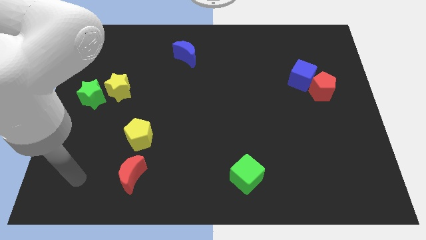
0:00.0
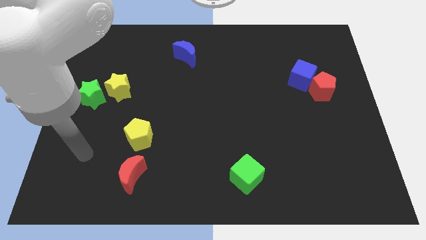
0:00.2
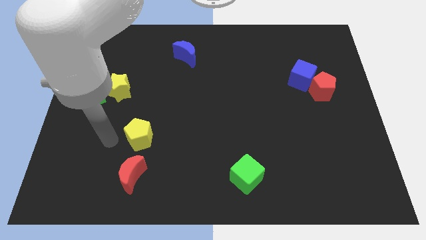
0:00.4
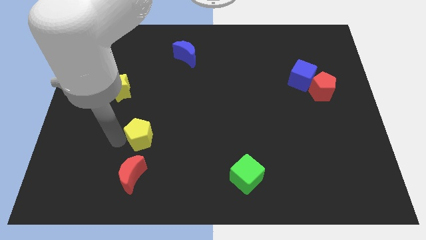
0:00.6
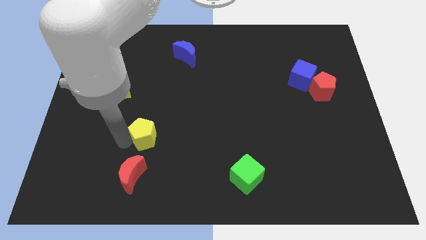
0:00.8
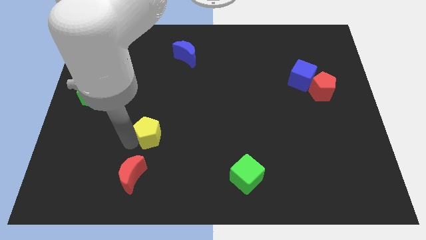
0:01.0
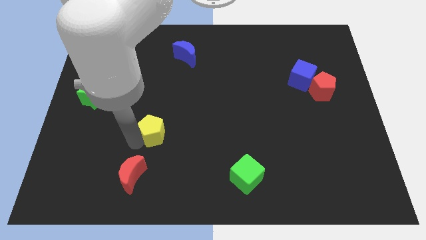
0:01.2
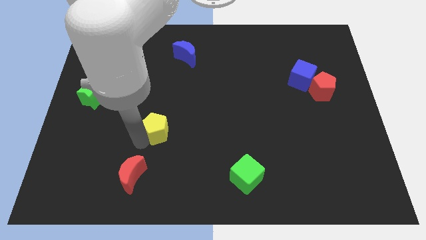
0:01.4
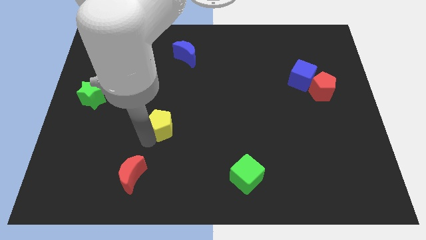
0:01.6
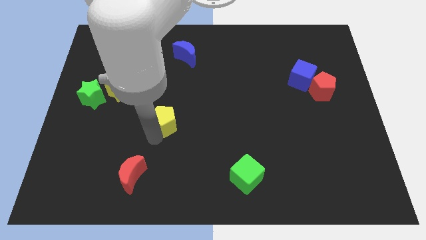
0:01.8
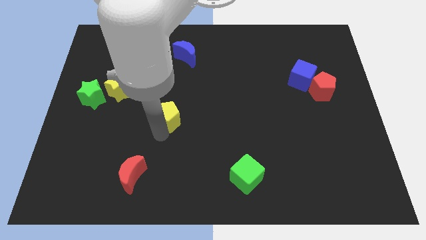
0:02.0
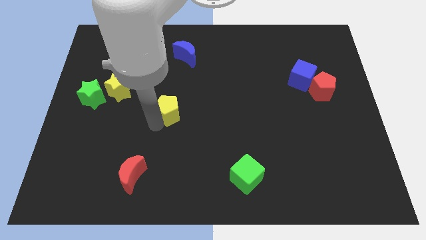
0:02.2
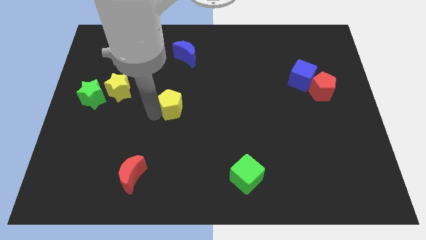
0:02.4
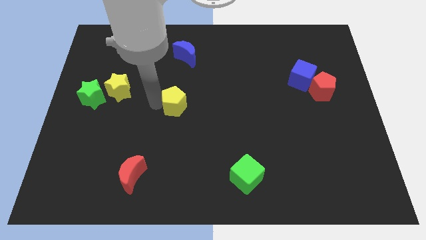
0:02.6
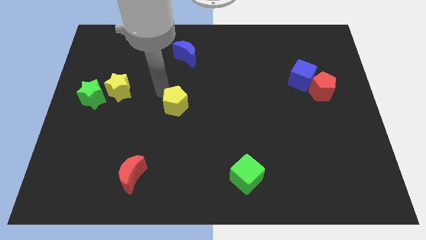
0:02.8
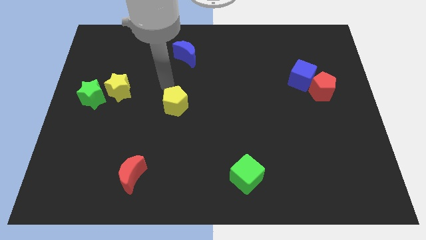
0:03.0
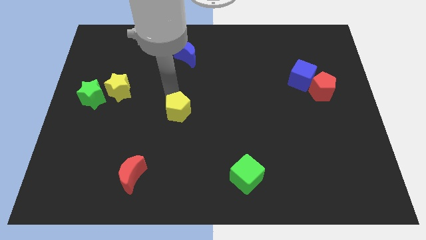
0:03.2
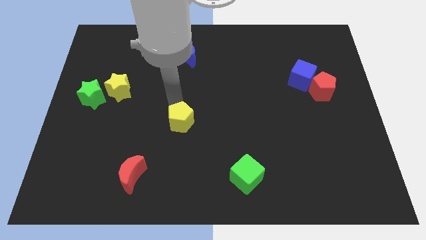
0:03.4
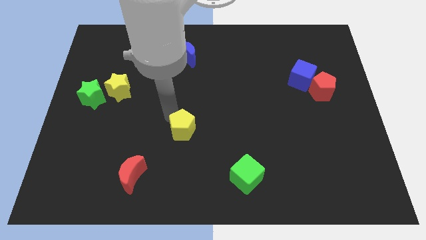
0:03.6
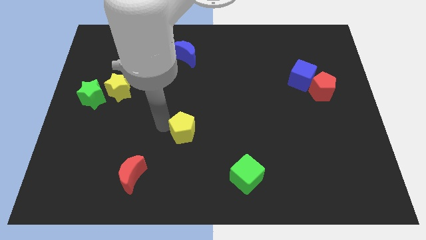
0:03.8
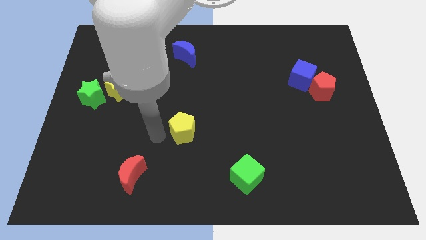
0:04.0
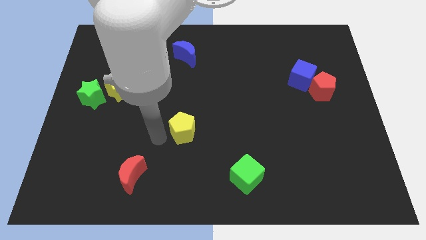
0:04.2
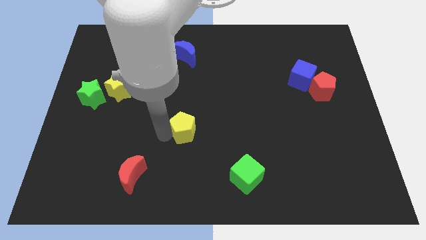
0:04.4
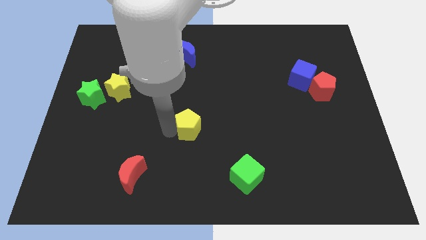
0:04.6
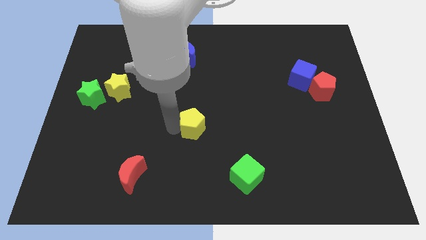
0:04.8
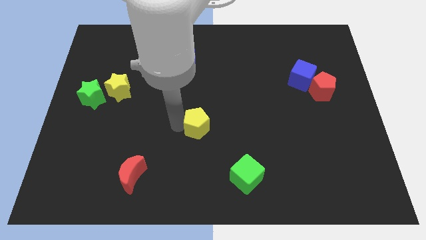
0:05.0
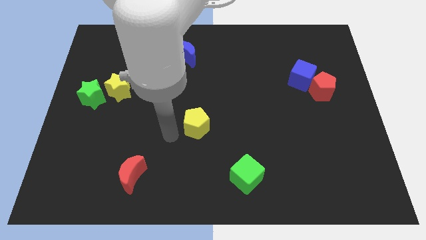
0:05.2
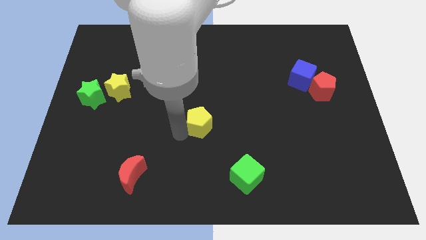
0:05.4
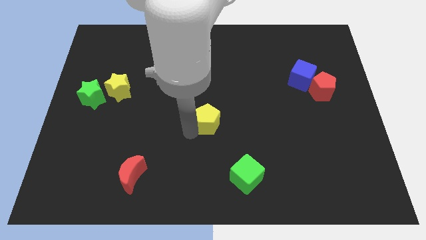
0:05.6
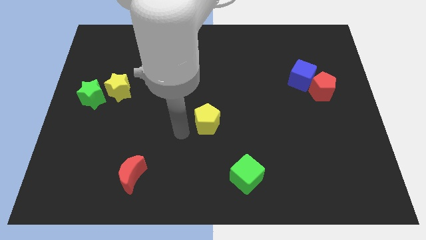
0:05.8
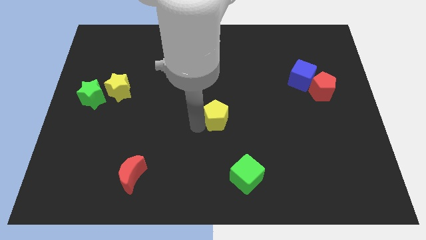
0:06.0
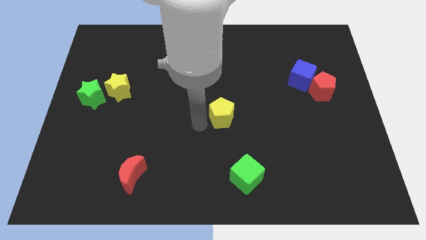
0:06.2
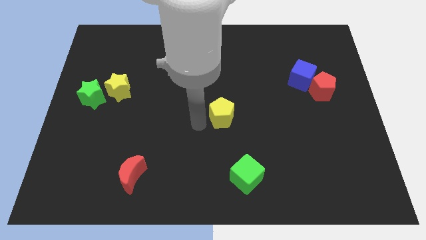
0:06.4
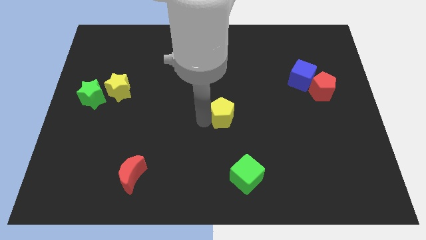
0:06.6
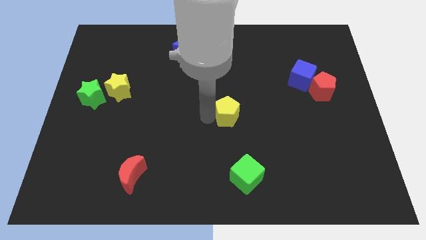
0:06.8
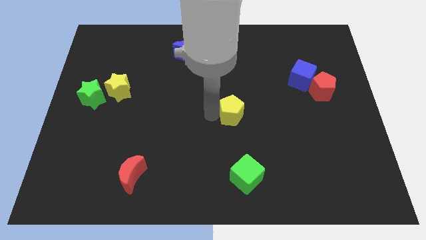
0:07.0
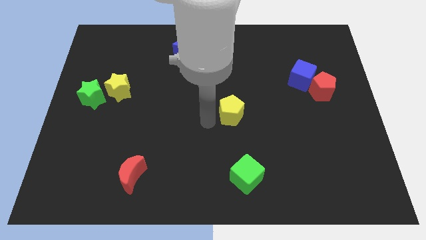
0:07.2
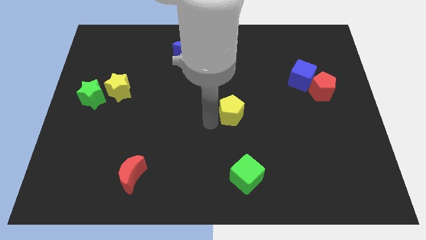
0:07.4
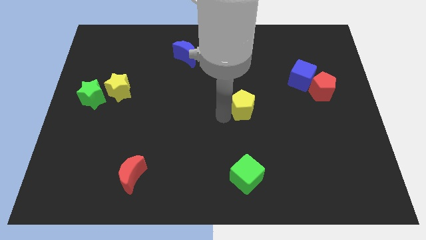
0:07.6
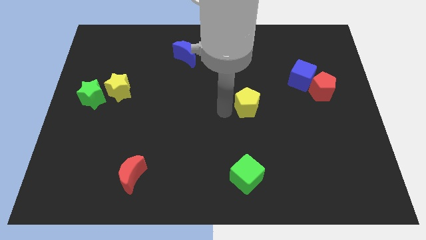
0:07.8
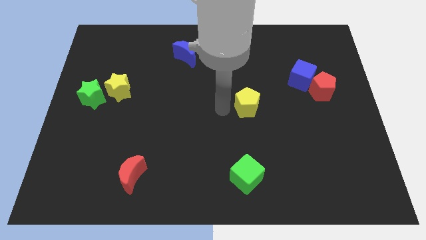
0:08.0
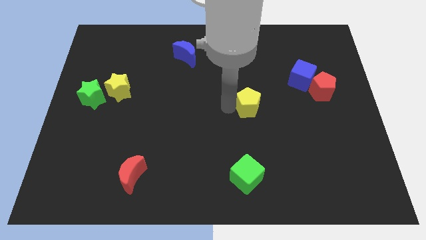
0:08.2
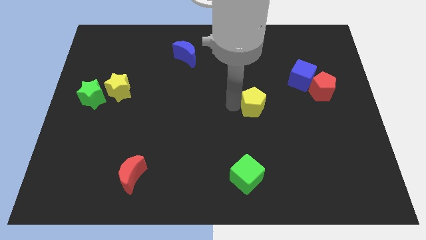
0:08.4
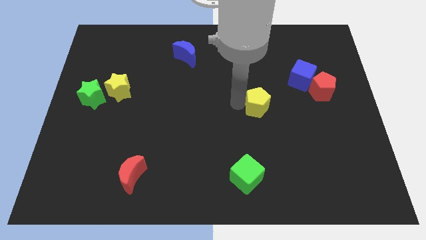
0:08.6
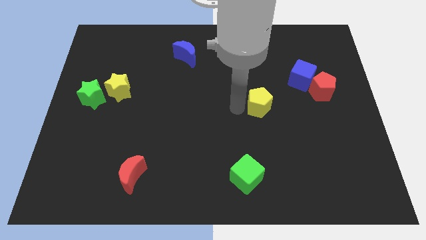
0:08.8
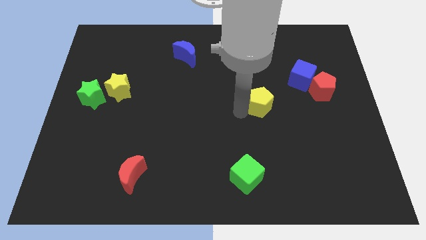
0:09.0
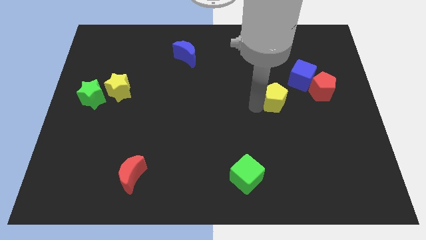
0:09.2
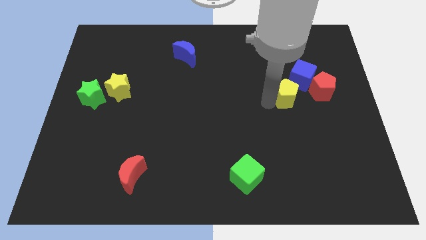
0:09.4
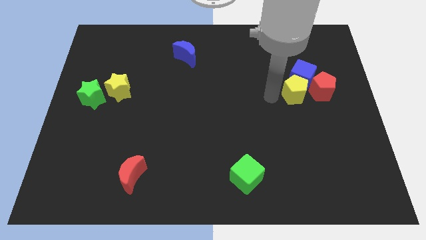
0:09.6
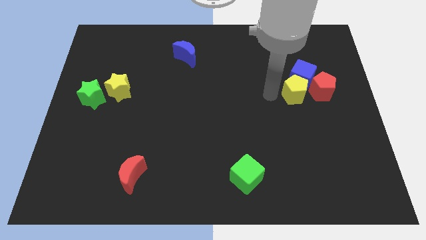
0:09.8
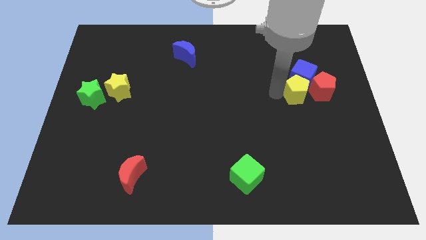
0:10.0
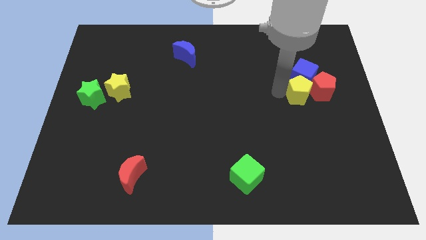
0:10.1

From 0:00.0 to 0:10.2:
move the yellow pentagon to the red pentagon

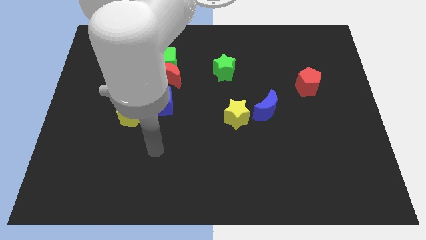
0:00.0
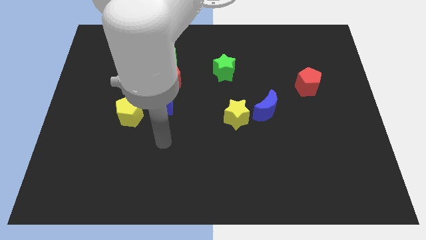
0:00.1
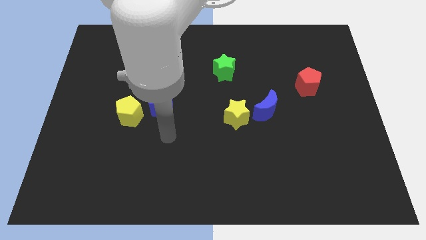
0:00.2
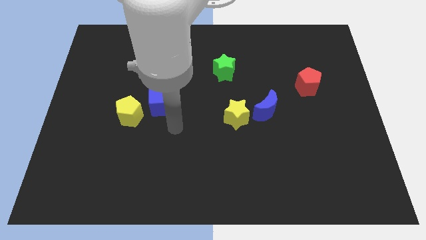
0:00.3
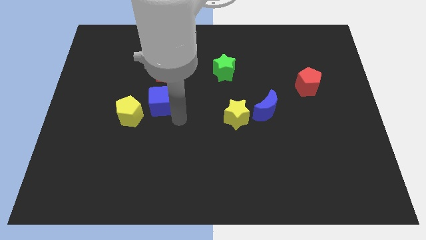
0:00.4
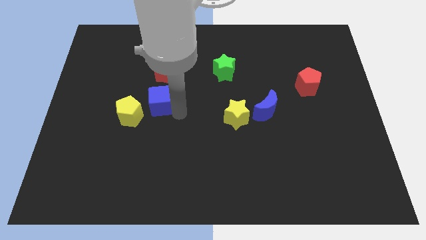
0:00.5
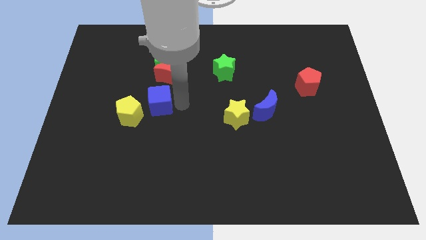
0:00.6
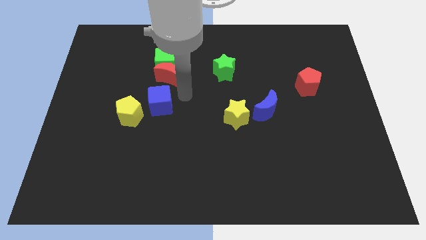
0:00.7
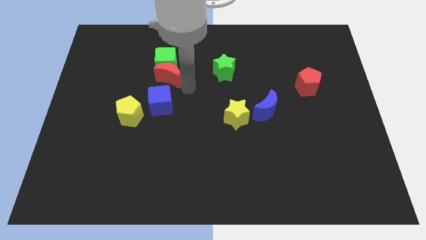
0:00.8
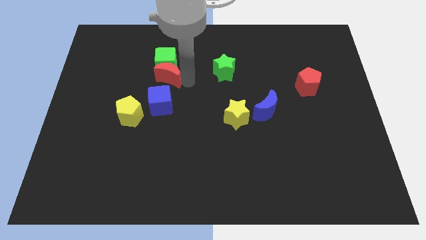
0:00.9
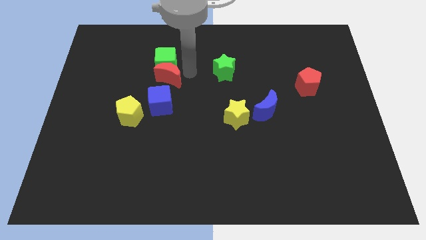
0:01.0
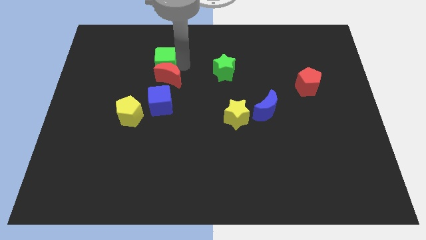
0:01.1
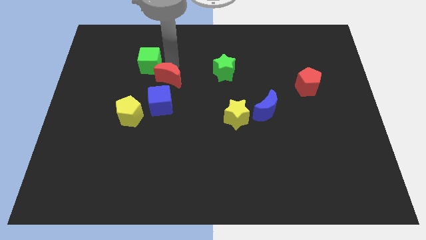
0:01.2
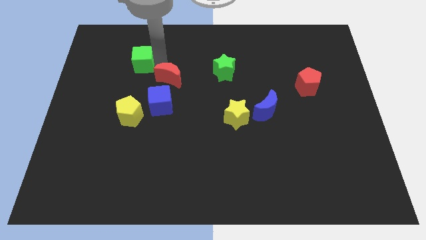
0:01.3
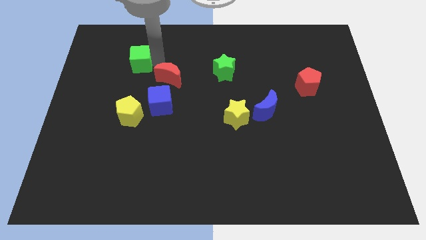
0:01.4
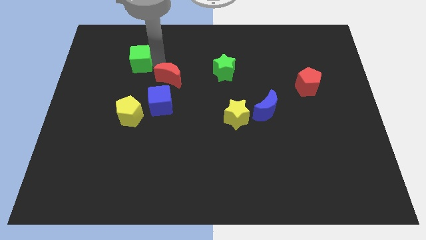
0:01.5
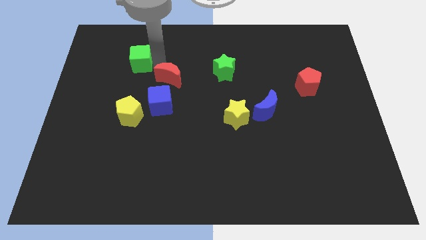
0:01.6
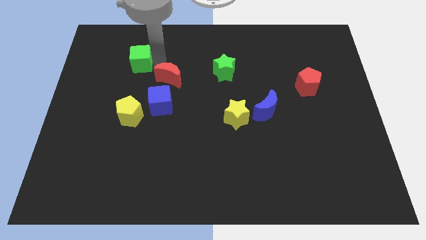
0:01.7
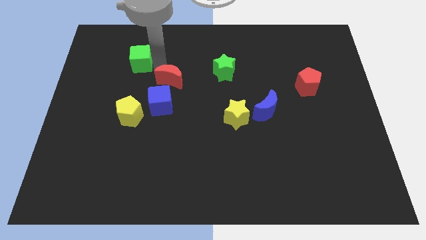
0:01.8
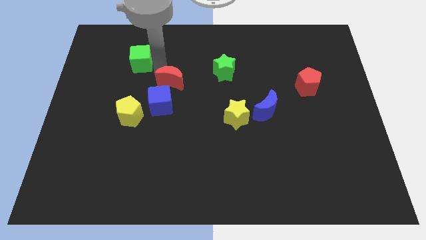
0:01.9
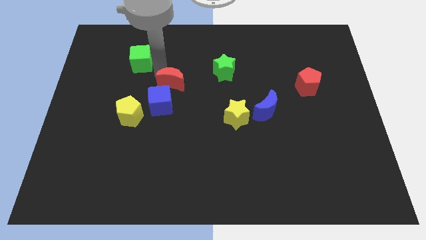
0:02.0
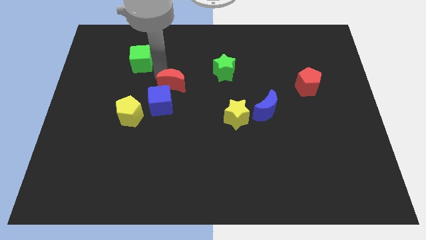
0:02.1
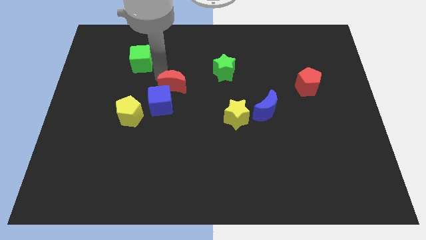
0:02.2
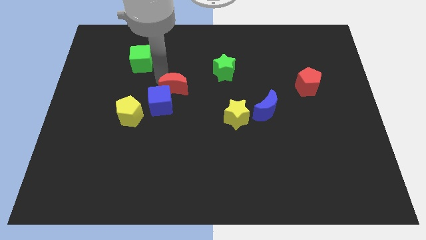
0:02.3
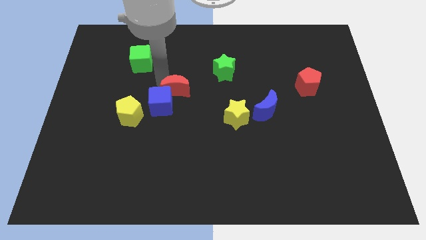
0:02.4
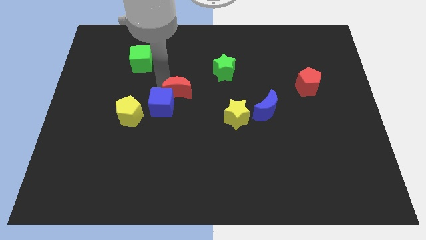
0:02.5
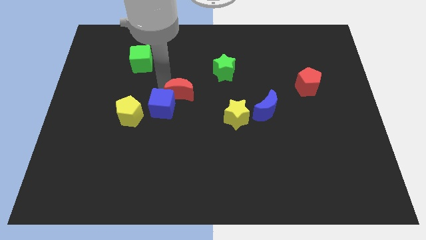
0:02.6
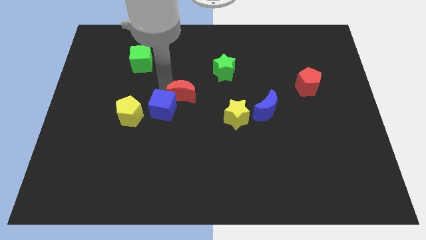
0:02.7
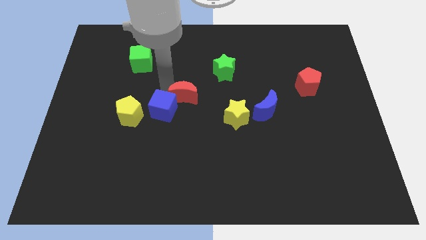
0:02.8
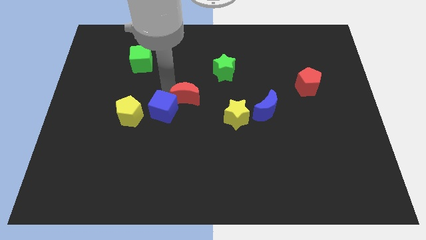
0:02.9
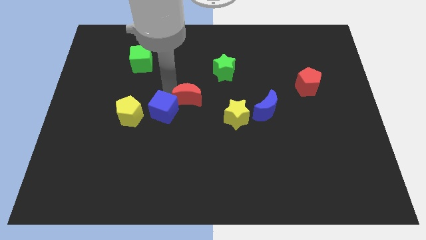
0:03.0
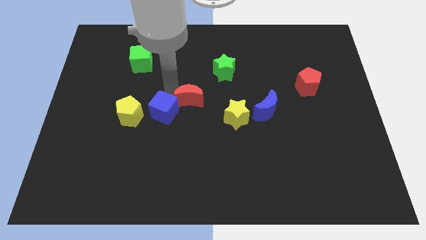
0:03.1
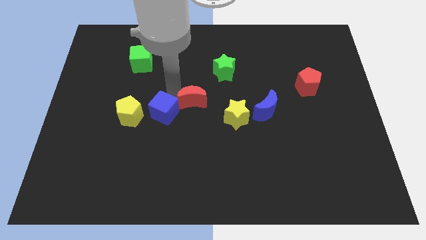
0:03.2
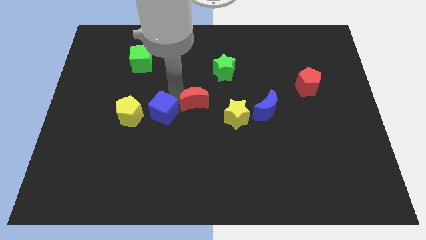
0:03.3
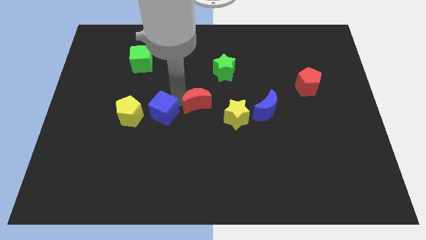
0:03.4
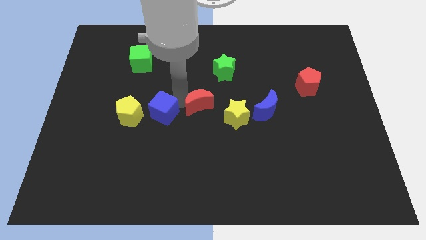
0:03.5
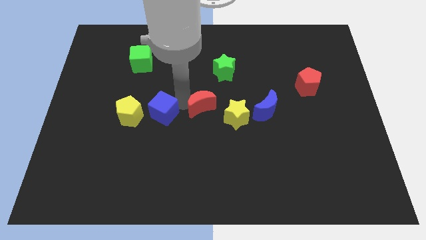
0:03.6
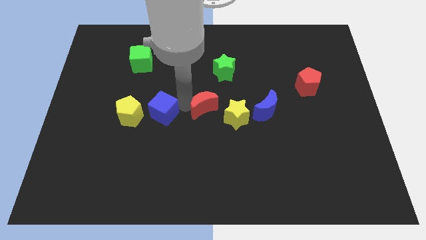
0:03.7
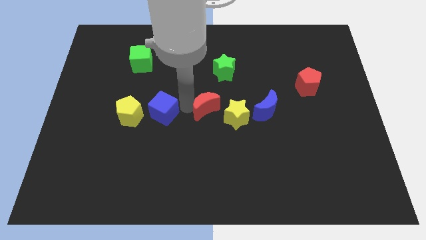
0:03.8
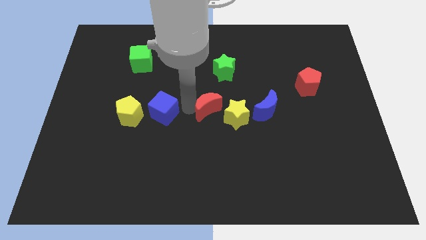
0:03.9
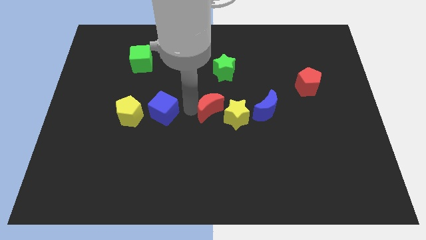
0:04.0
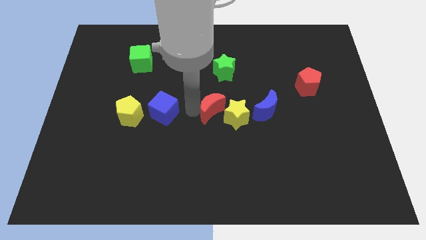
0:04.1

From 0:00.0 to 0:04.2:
put the red moon towards the yellow star
